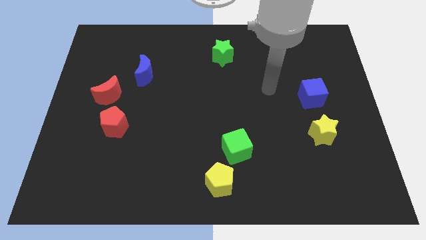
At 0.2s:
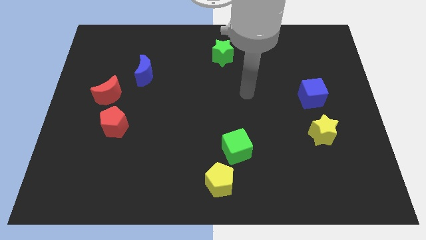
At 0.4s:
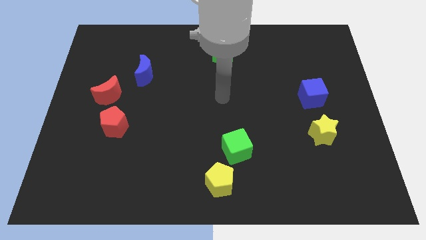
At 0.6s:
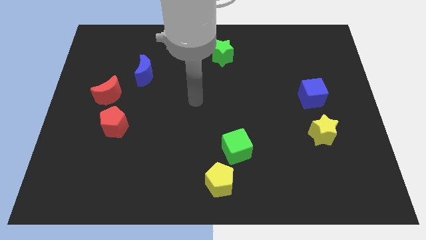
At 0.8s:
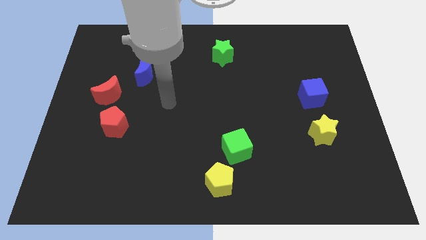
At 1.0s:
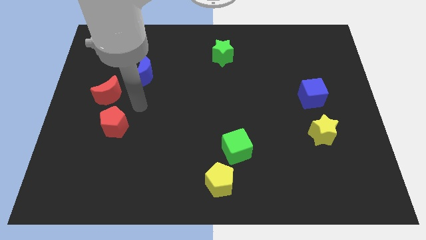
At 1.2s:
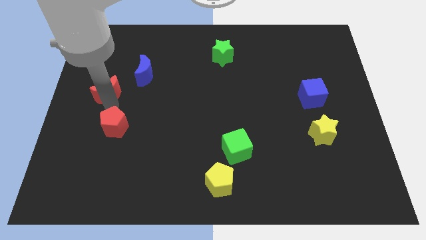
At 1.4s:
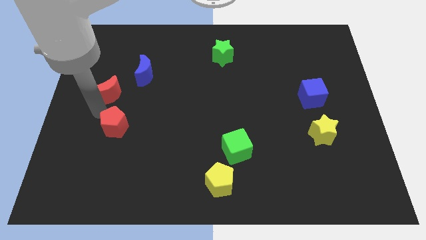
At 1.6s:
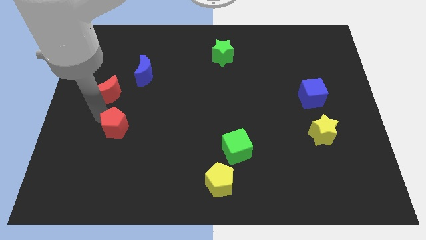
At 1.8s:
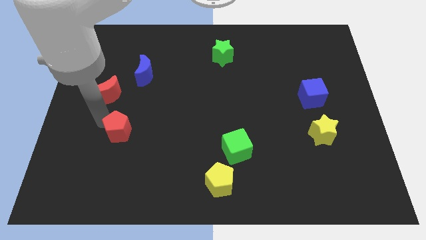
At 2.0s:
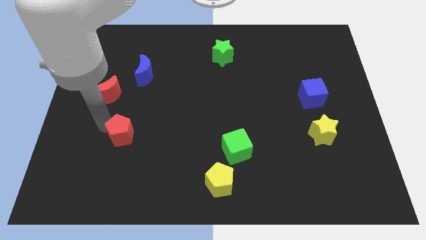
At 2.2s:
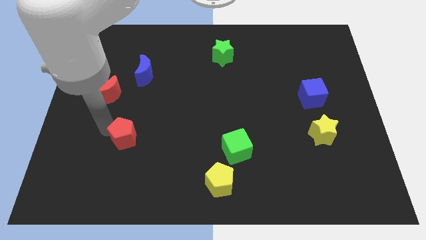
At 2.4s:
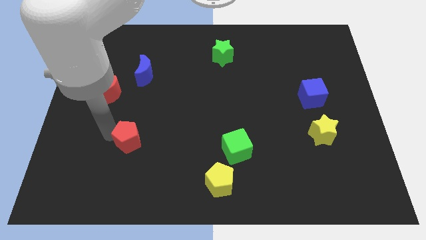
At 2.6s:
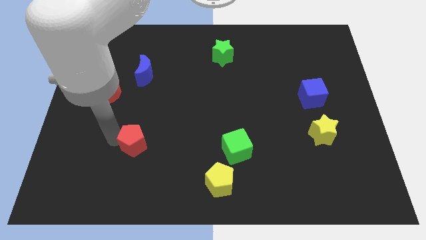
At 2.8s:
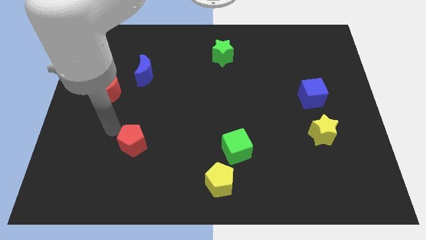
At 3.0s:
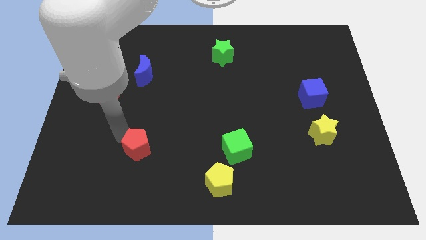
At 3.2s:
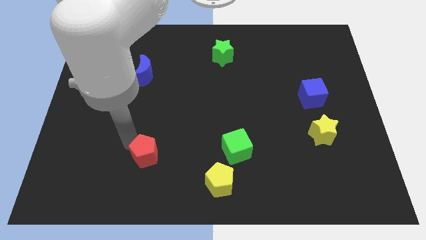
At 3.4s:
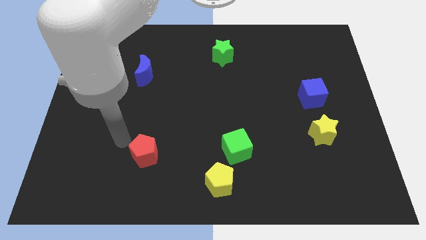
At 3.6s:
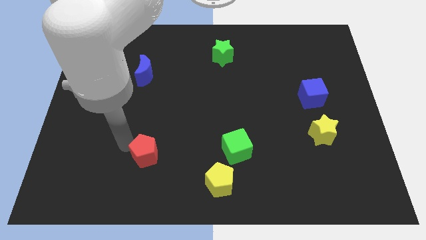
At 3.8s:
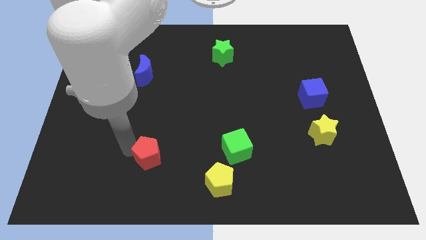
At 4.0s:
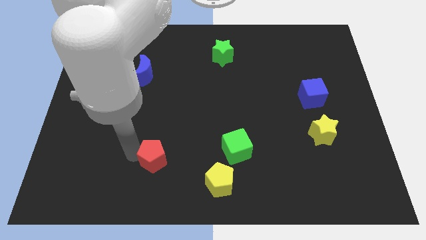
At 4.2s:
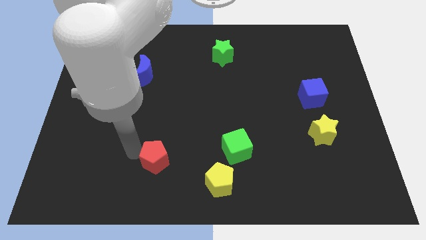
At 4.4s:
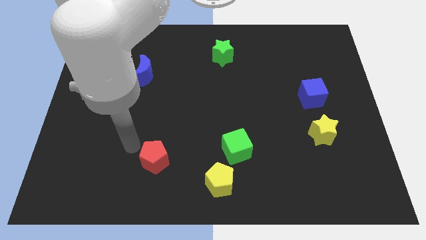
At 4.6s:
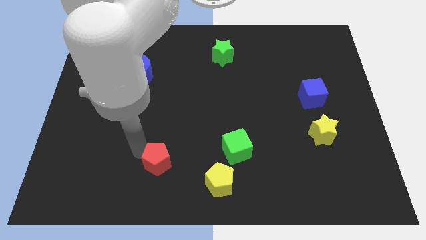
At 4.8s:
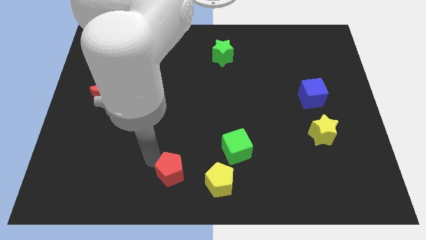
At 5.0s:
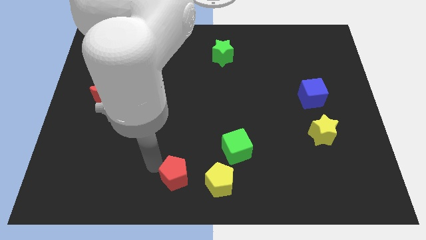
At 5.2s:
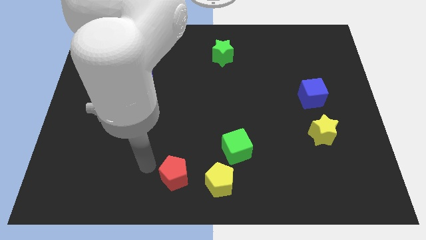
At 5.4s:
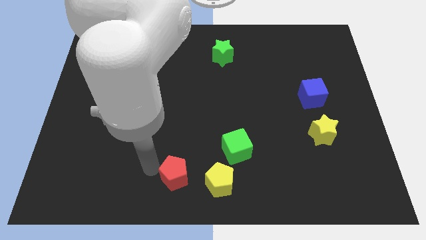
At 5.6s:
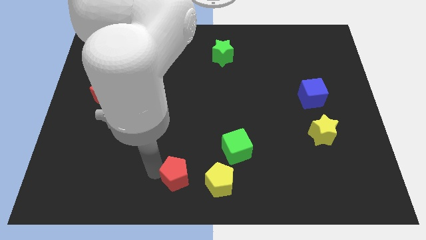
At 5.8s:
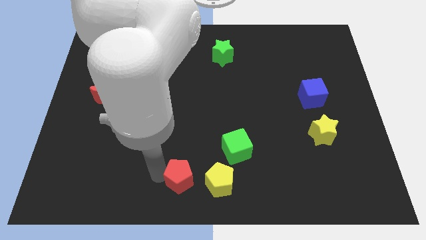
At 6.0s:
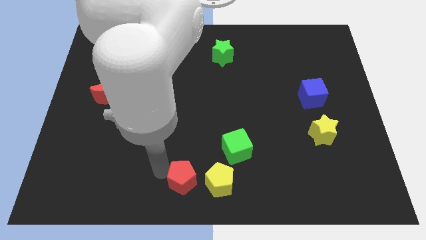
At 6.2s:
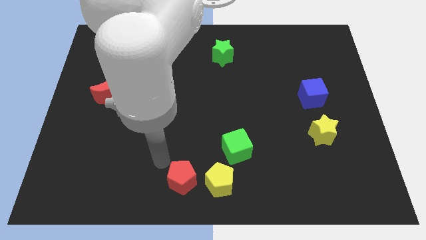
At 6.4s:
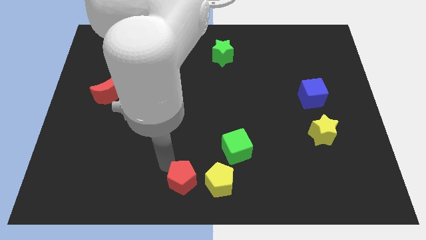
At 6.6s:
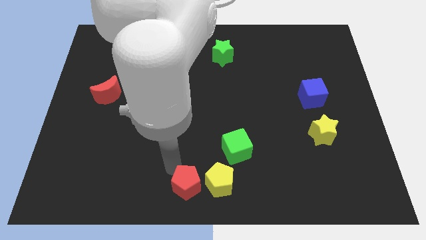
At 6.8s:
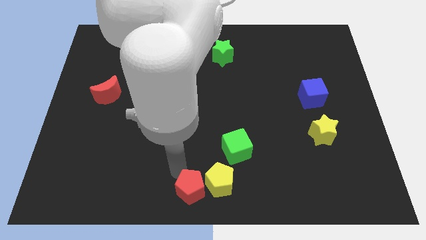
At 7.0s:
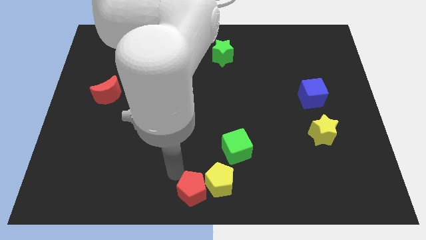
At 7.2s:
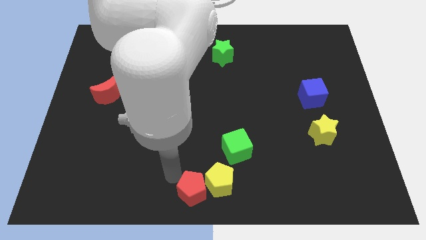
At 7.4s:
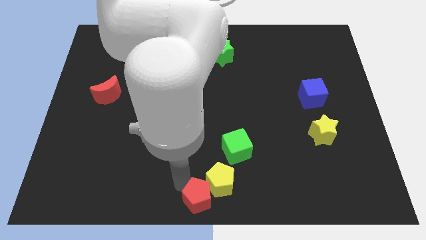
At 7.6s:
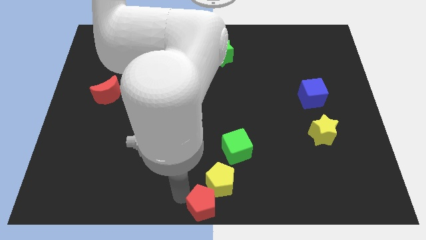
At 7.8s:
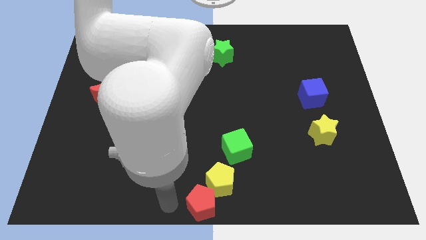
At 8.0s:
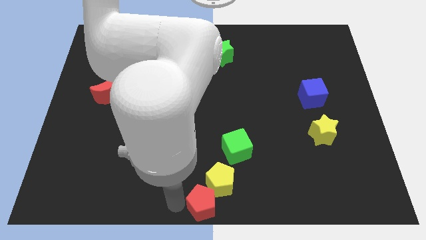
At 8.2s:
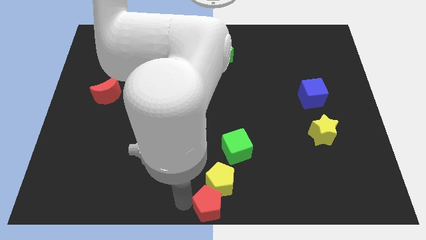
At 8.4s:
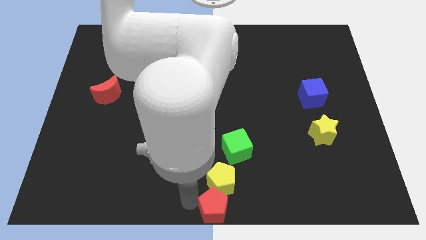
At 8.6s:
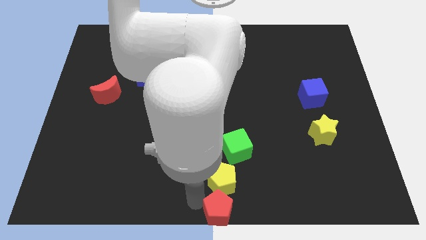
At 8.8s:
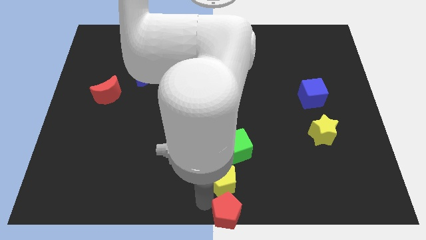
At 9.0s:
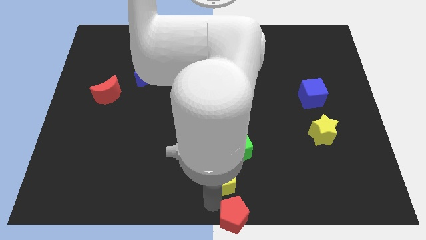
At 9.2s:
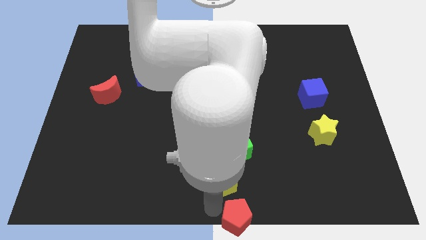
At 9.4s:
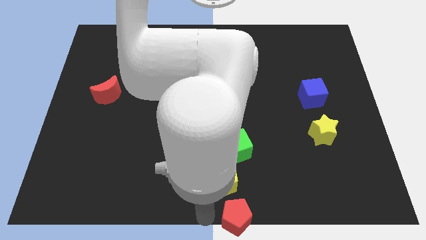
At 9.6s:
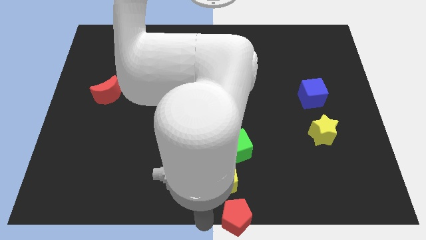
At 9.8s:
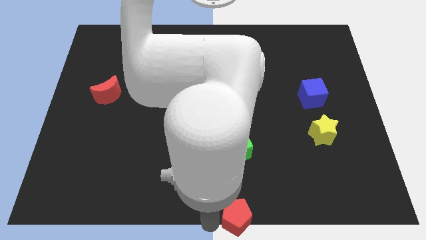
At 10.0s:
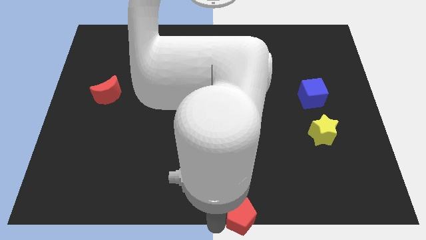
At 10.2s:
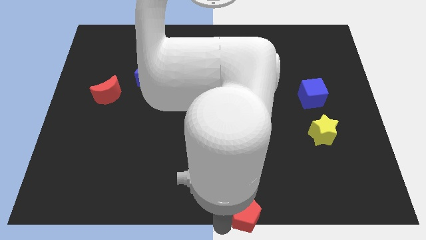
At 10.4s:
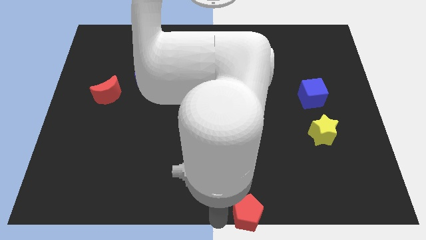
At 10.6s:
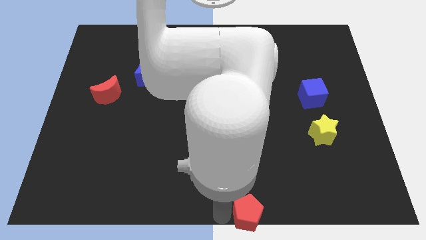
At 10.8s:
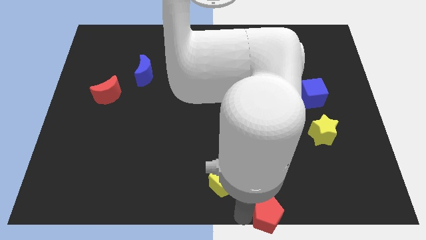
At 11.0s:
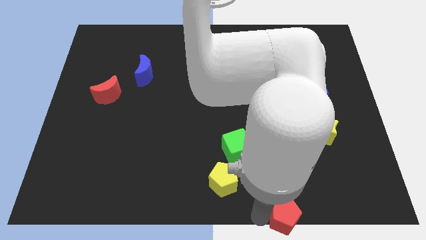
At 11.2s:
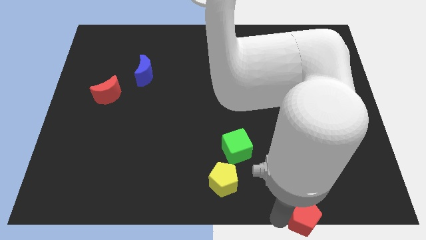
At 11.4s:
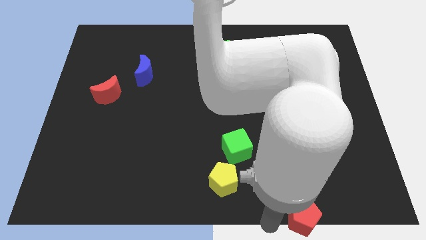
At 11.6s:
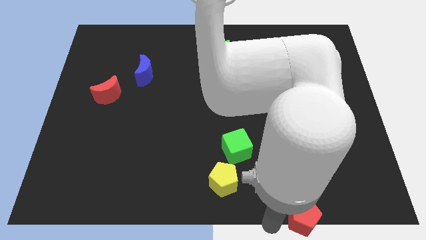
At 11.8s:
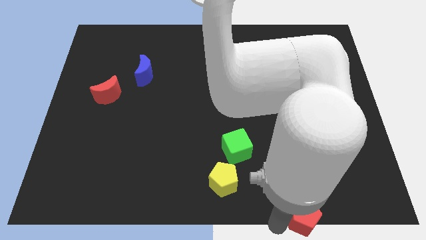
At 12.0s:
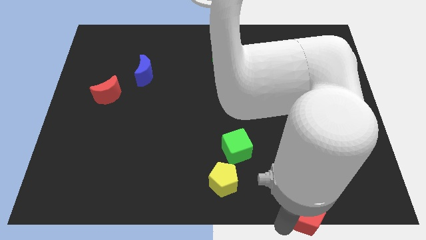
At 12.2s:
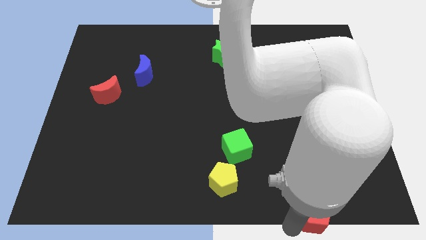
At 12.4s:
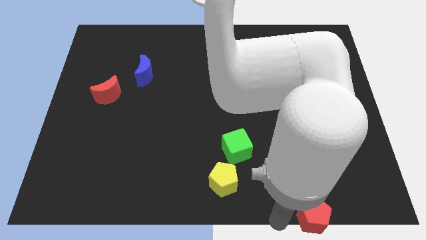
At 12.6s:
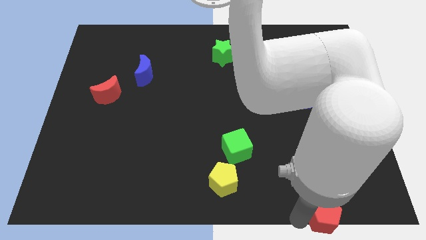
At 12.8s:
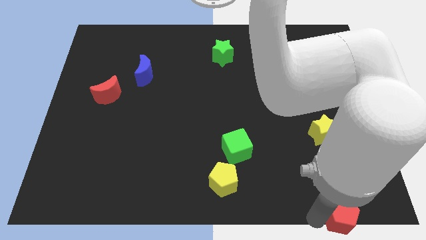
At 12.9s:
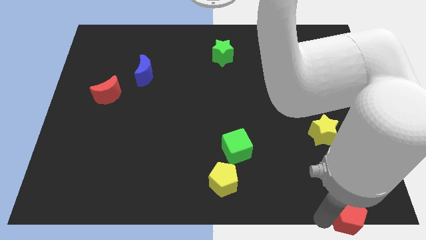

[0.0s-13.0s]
put the red pentagon to the lower right corner
